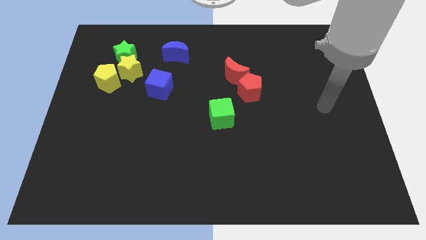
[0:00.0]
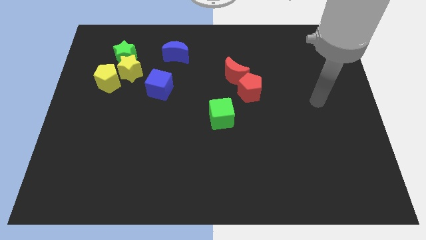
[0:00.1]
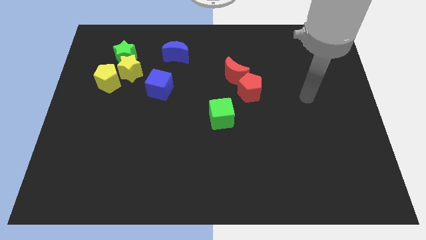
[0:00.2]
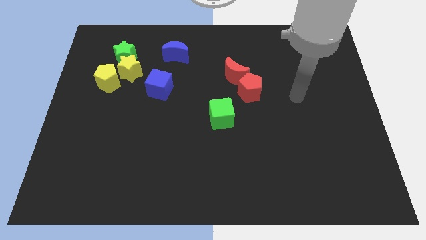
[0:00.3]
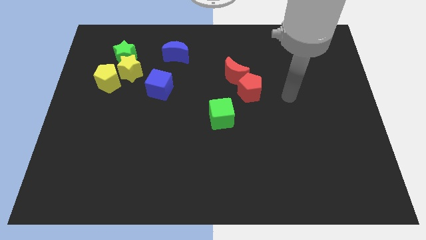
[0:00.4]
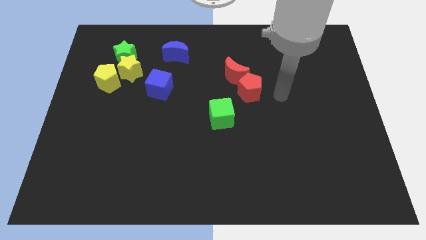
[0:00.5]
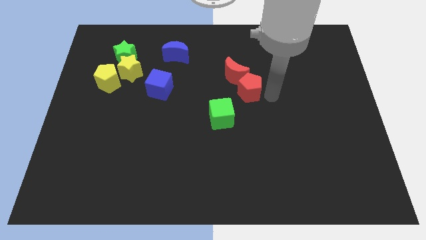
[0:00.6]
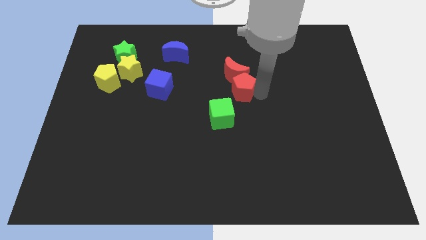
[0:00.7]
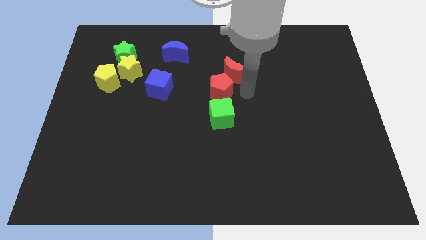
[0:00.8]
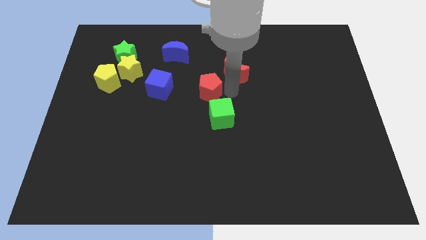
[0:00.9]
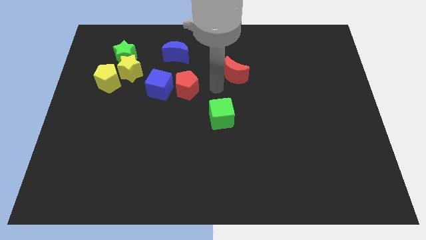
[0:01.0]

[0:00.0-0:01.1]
move the red moon away from the red pentagon

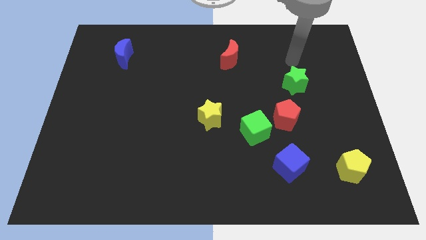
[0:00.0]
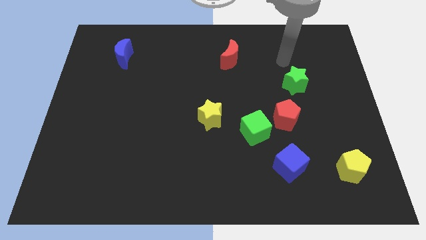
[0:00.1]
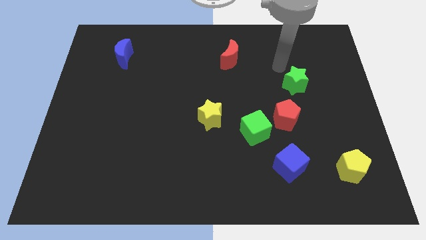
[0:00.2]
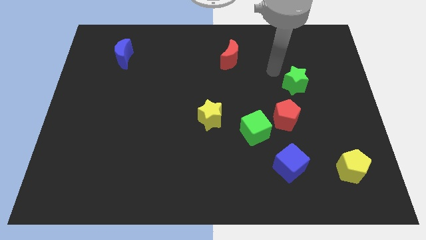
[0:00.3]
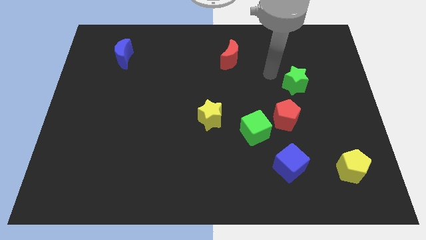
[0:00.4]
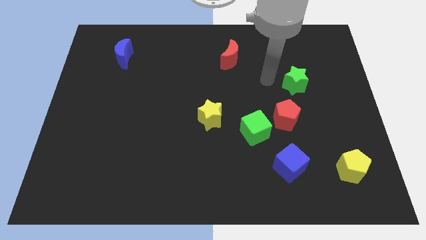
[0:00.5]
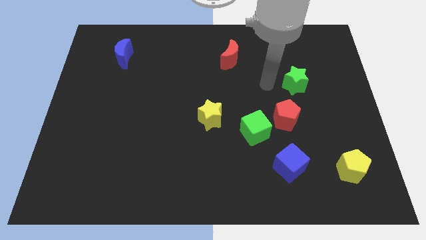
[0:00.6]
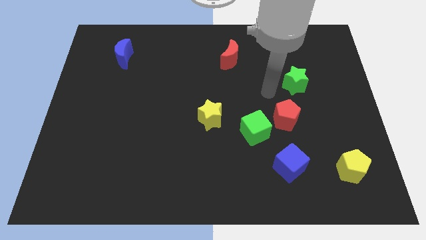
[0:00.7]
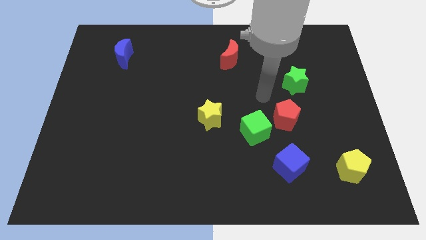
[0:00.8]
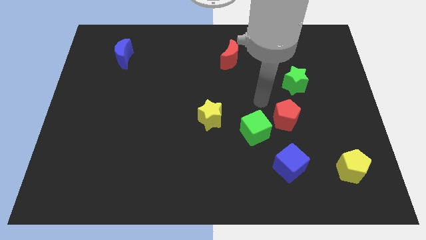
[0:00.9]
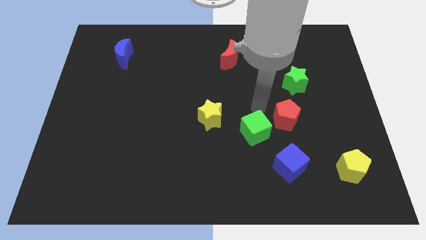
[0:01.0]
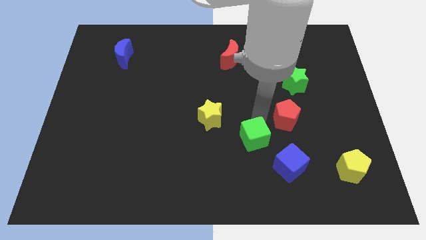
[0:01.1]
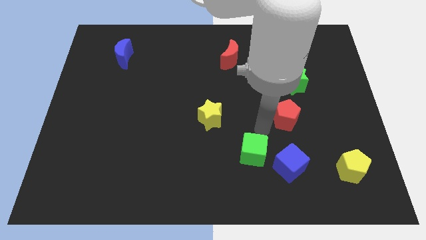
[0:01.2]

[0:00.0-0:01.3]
separate the red pentagon from the green cube

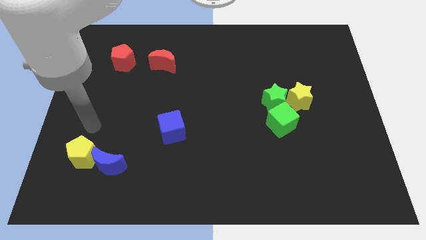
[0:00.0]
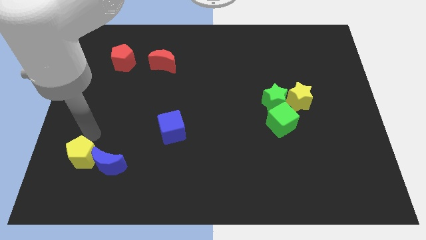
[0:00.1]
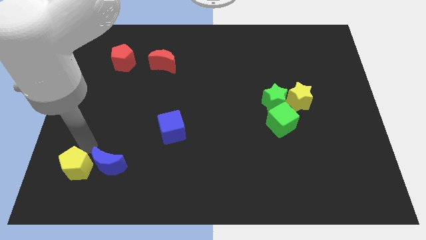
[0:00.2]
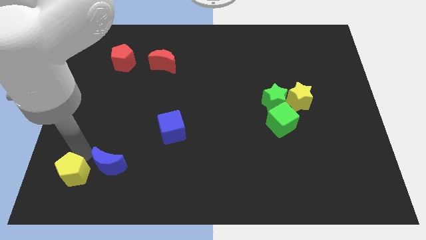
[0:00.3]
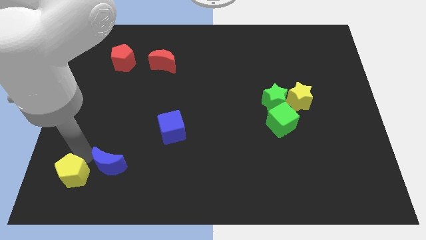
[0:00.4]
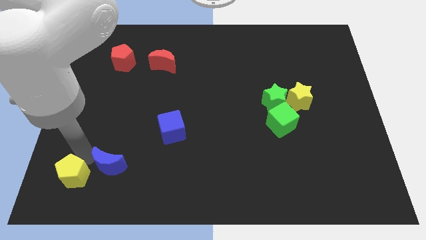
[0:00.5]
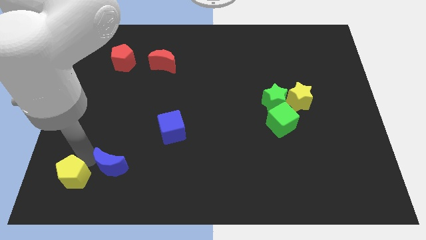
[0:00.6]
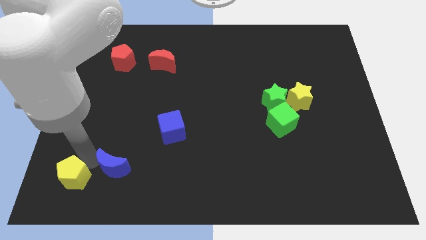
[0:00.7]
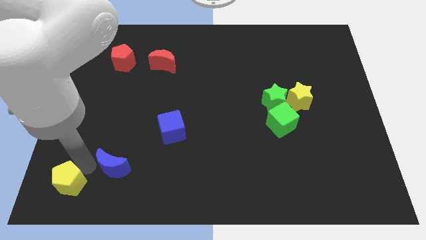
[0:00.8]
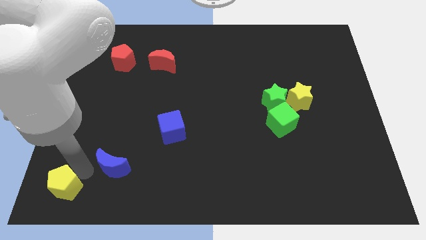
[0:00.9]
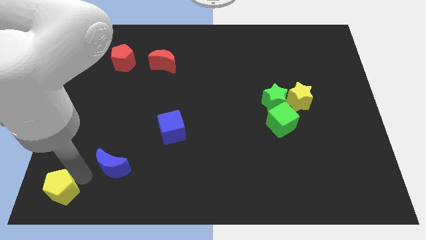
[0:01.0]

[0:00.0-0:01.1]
separate the blue moon from the yellow pentagon

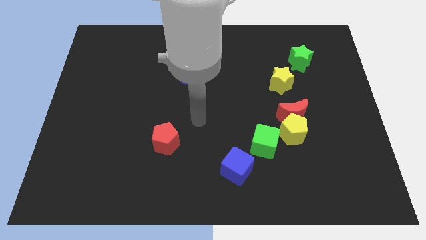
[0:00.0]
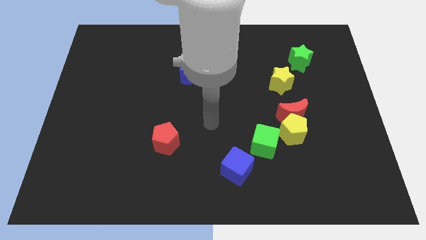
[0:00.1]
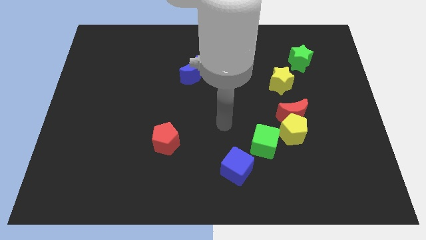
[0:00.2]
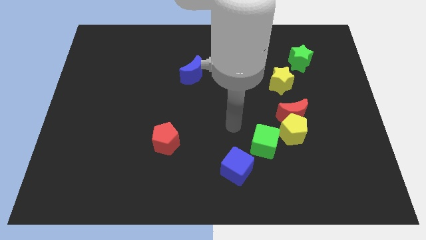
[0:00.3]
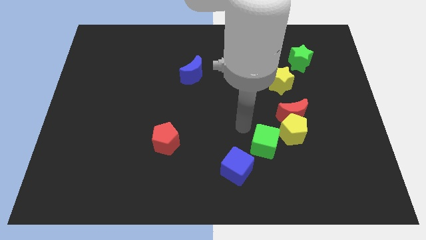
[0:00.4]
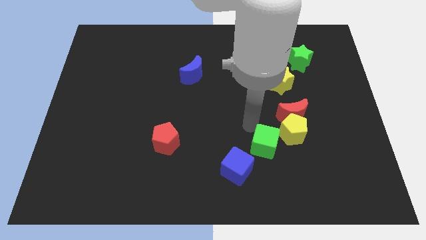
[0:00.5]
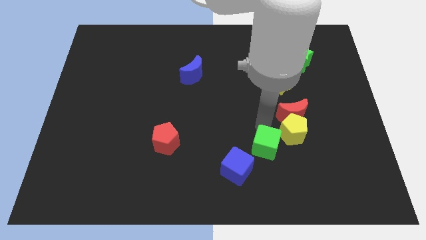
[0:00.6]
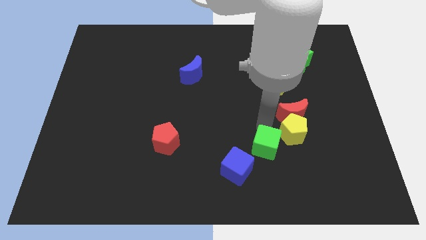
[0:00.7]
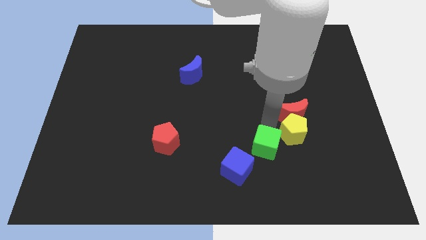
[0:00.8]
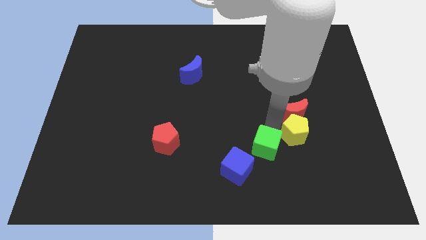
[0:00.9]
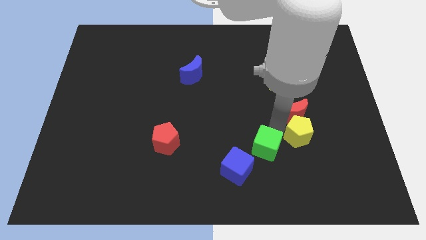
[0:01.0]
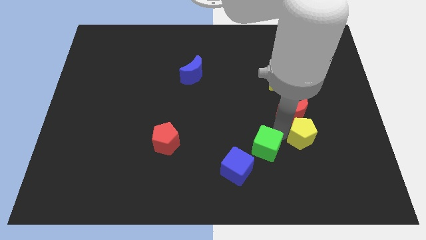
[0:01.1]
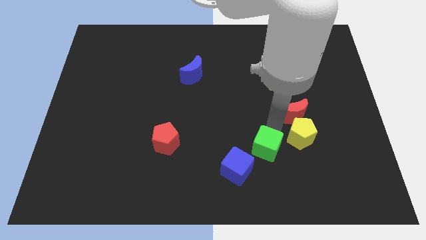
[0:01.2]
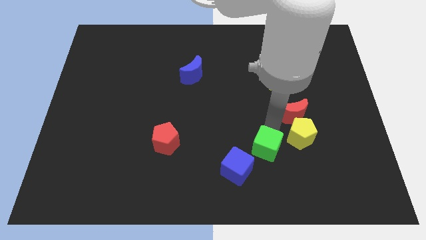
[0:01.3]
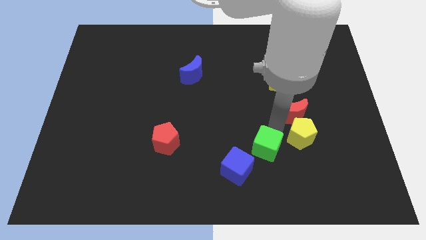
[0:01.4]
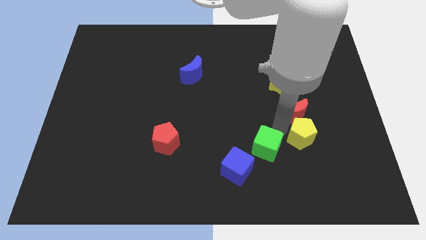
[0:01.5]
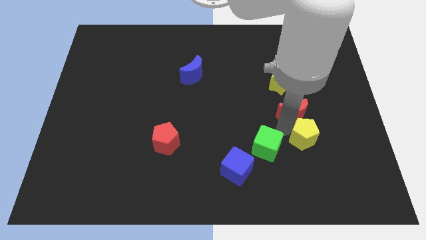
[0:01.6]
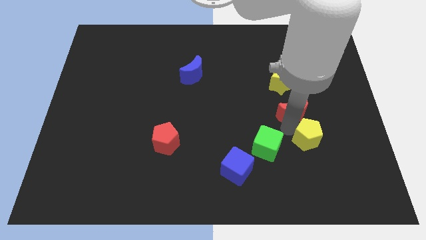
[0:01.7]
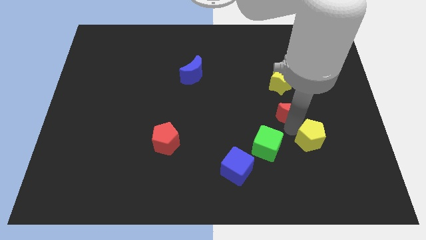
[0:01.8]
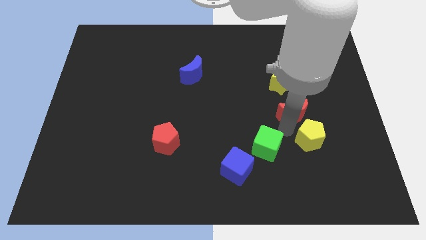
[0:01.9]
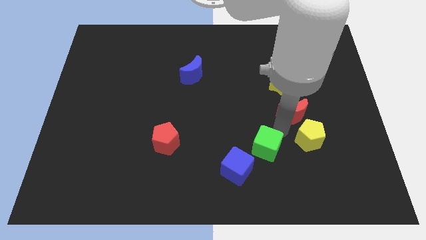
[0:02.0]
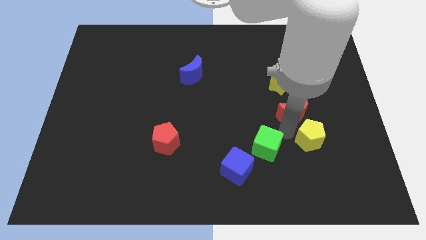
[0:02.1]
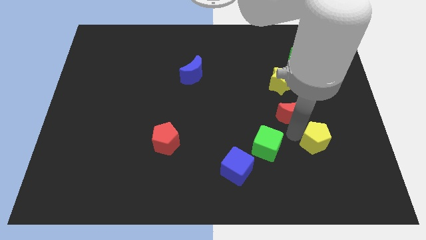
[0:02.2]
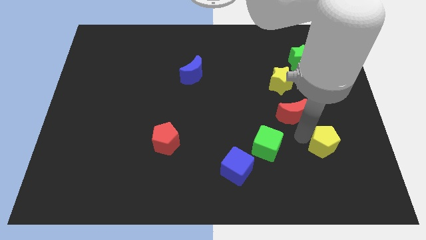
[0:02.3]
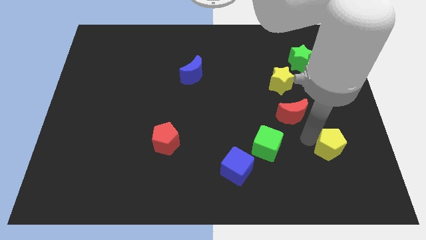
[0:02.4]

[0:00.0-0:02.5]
separate the yellow pentagon from the red moon and green cube

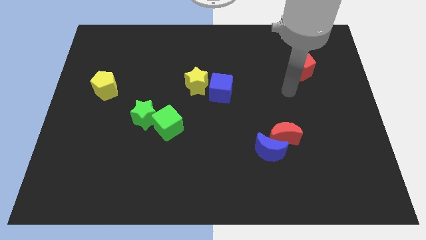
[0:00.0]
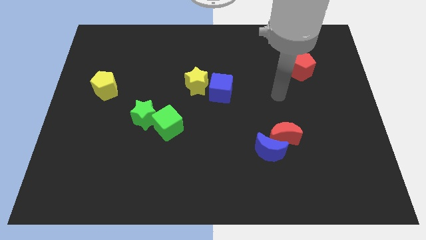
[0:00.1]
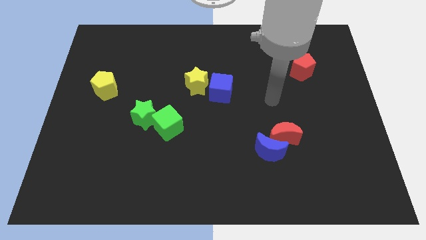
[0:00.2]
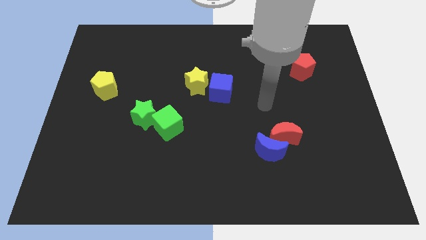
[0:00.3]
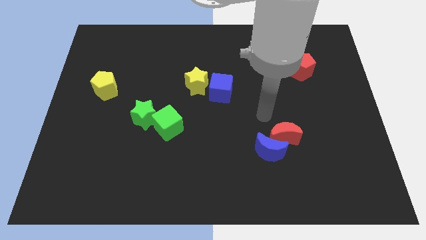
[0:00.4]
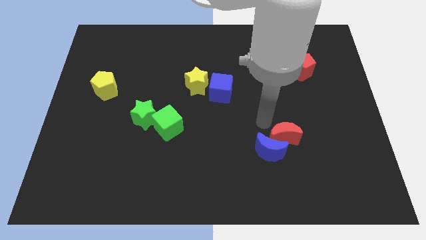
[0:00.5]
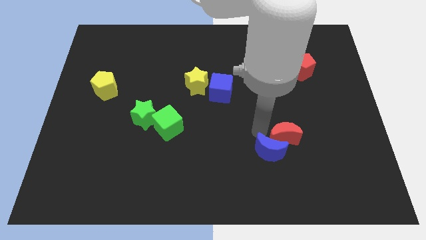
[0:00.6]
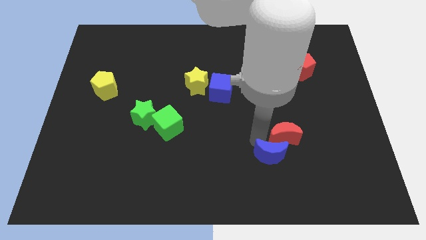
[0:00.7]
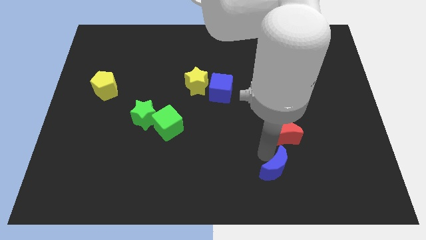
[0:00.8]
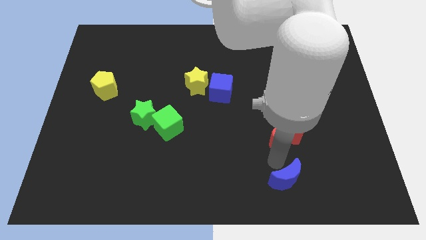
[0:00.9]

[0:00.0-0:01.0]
pull the red moon apart from the blue moon

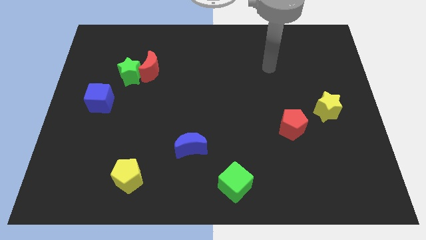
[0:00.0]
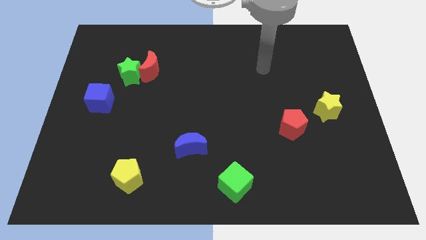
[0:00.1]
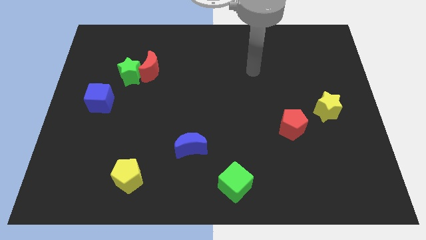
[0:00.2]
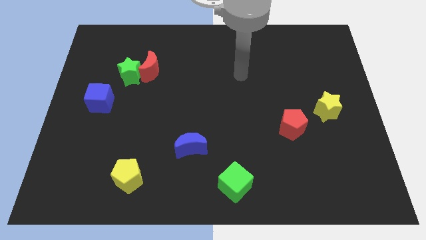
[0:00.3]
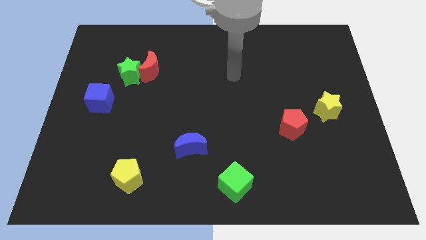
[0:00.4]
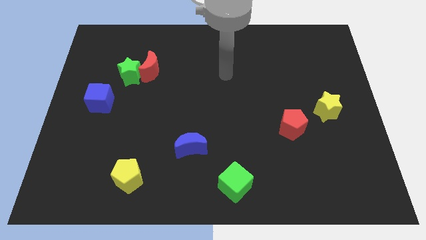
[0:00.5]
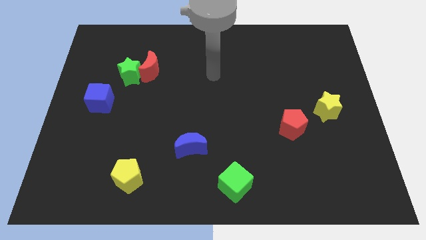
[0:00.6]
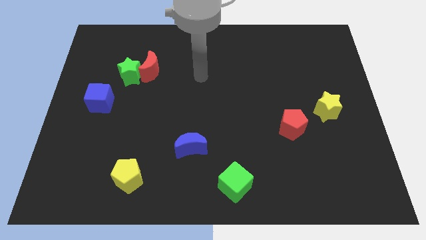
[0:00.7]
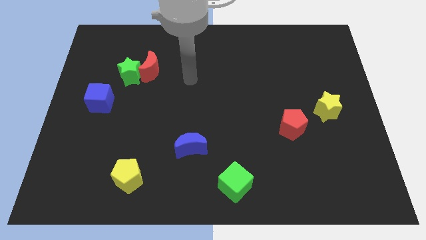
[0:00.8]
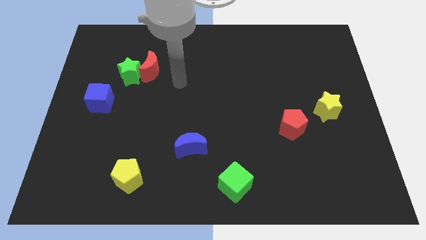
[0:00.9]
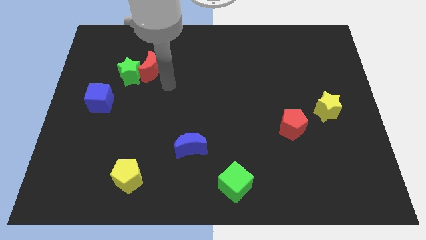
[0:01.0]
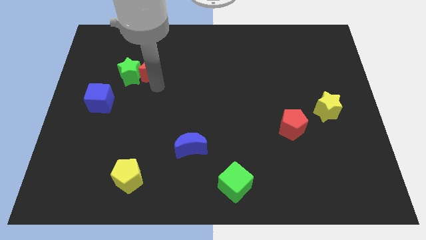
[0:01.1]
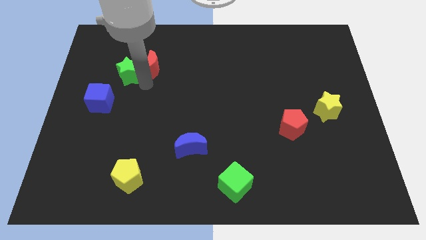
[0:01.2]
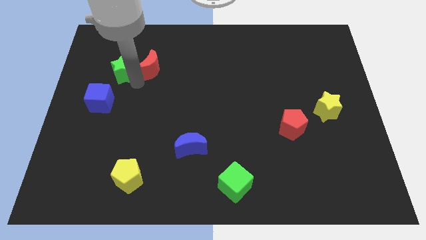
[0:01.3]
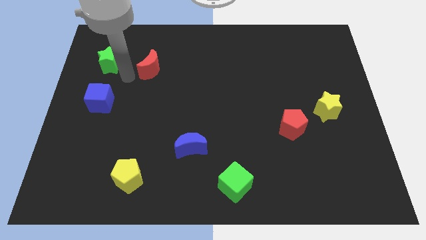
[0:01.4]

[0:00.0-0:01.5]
pull the red moon apart from the green star

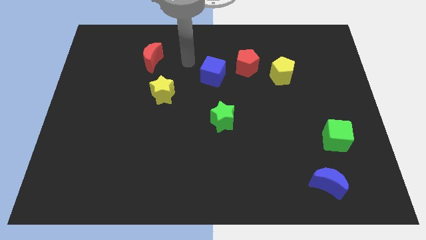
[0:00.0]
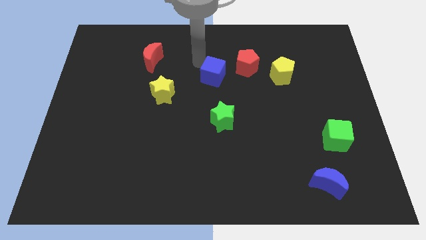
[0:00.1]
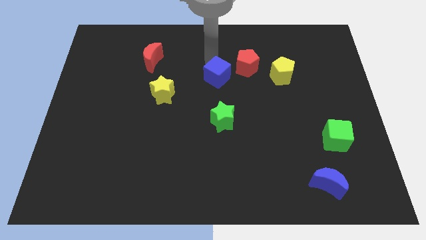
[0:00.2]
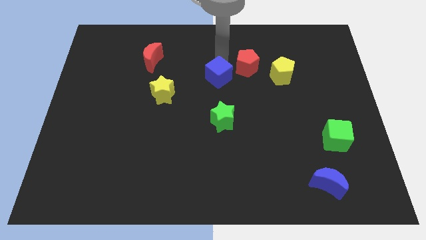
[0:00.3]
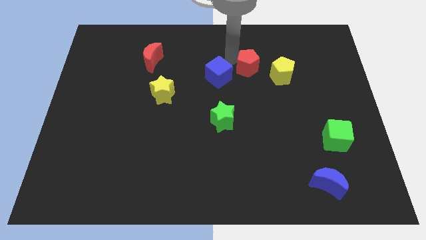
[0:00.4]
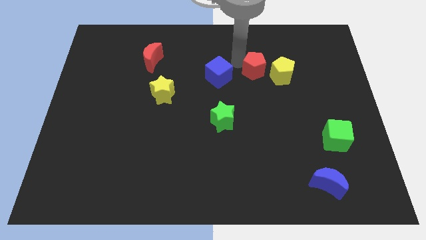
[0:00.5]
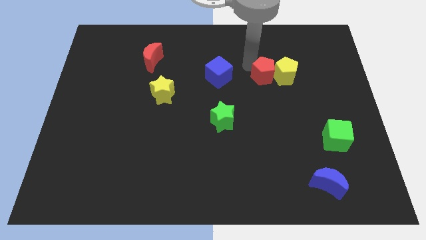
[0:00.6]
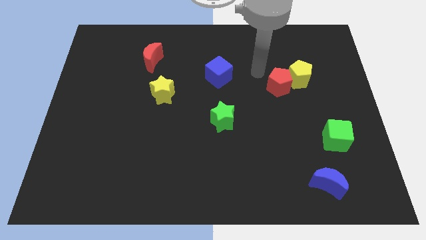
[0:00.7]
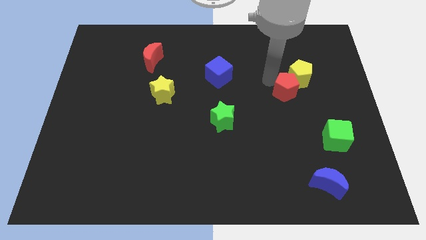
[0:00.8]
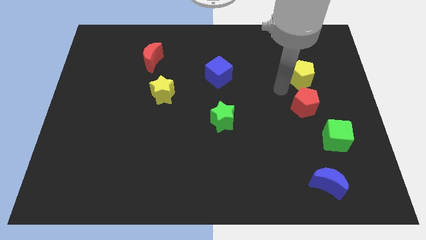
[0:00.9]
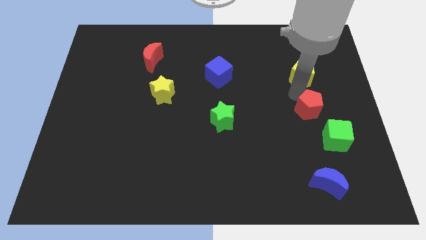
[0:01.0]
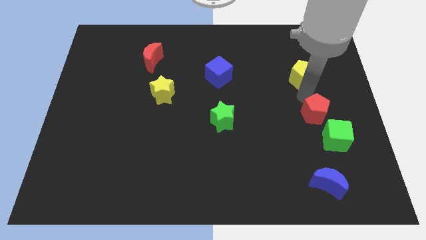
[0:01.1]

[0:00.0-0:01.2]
separate the yellow pentagon from the red pentagon
